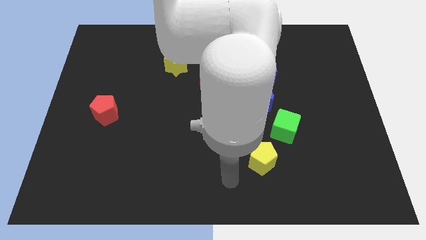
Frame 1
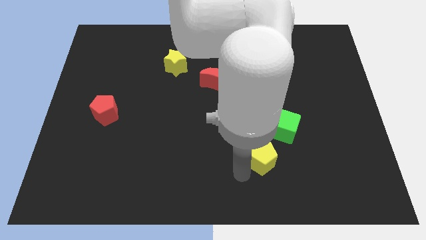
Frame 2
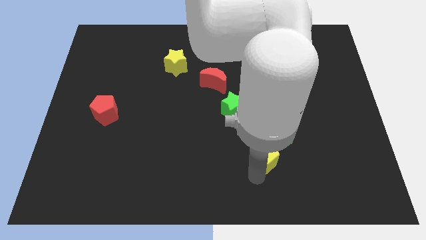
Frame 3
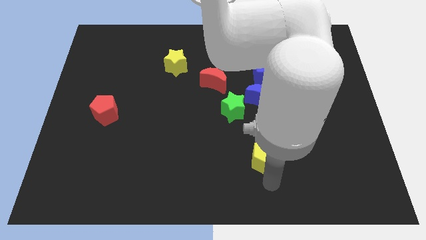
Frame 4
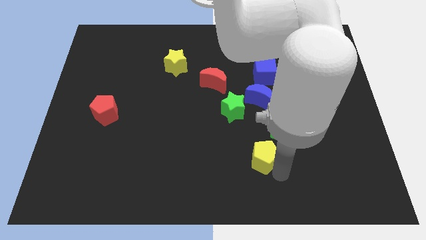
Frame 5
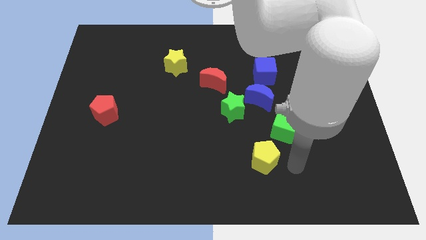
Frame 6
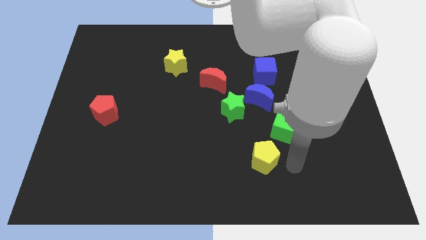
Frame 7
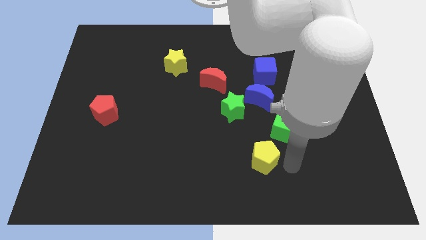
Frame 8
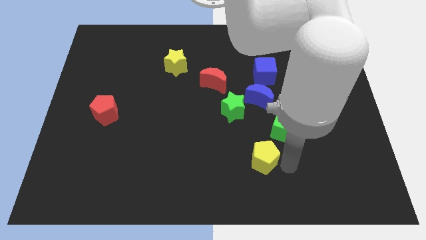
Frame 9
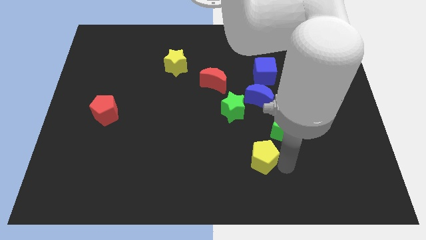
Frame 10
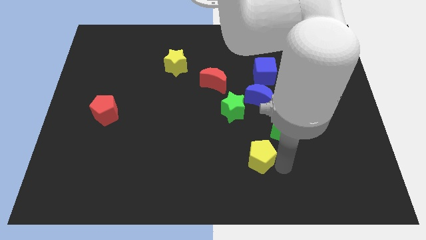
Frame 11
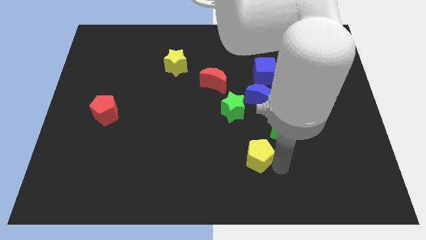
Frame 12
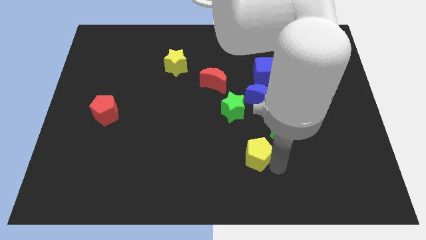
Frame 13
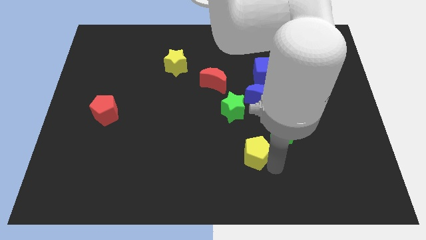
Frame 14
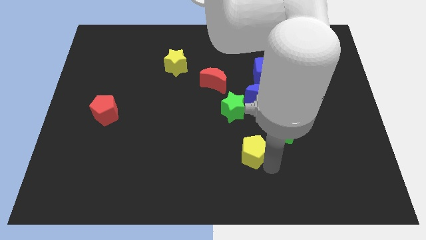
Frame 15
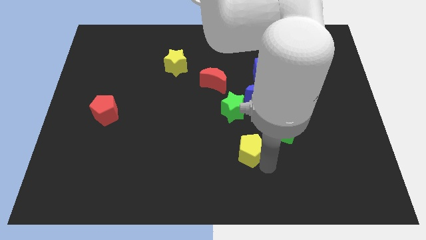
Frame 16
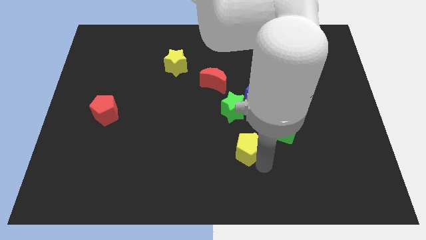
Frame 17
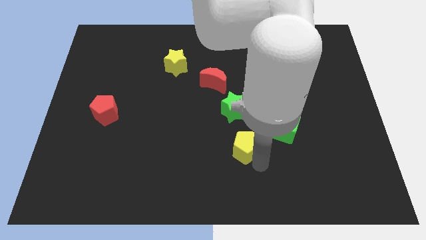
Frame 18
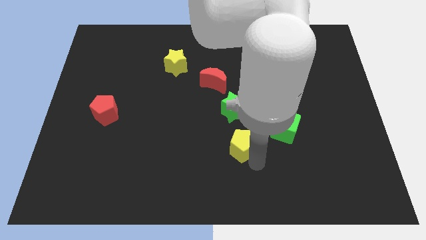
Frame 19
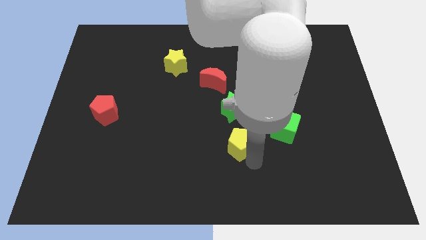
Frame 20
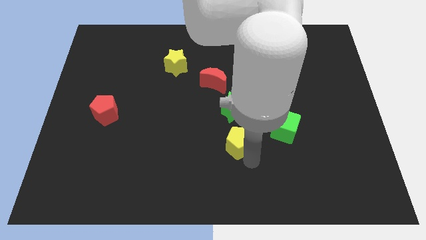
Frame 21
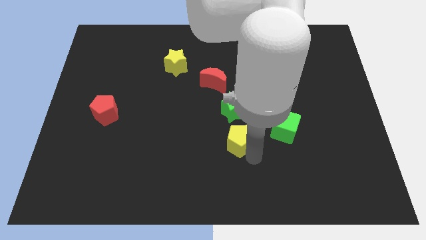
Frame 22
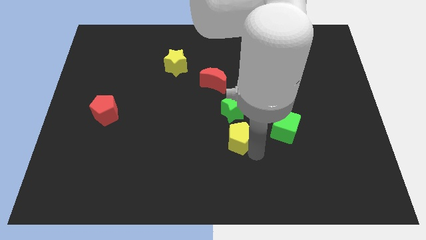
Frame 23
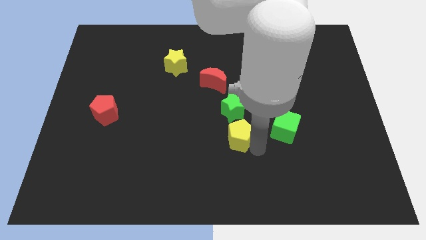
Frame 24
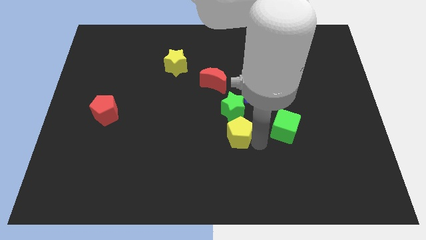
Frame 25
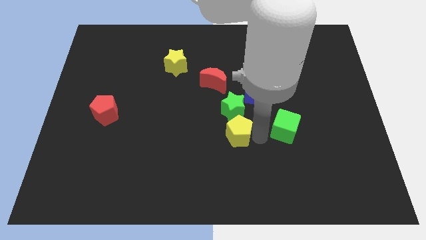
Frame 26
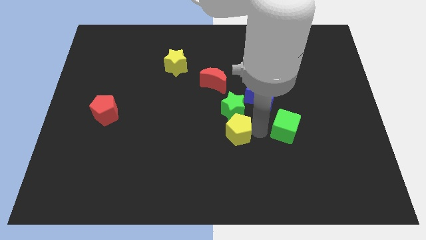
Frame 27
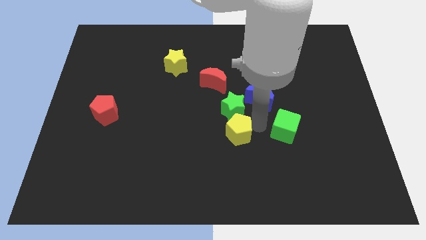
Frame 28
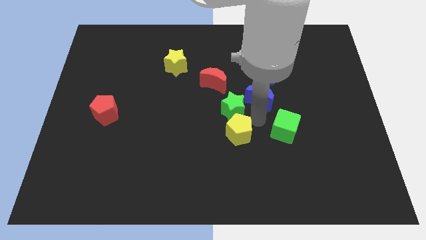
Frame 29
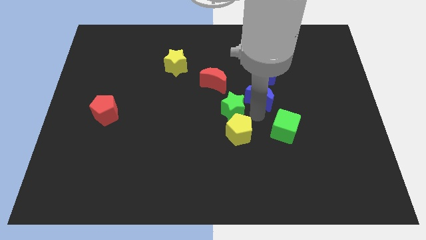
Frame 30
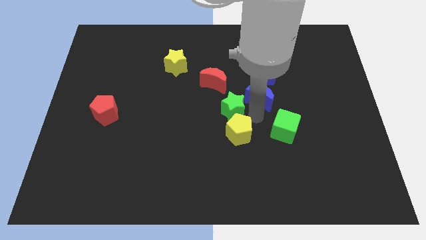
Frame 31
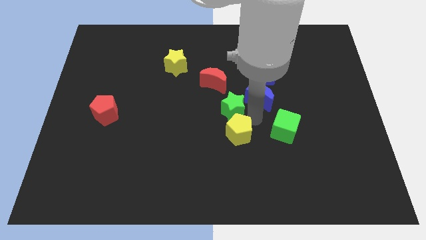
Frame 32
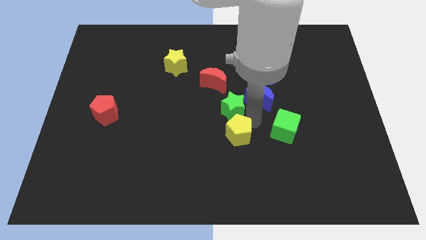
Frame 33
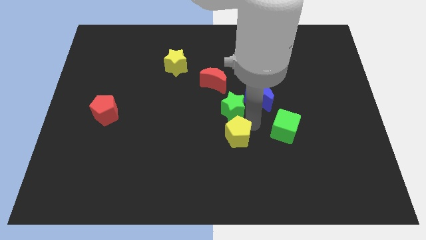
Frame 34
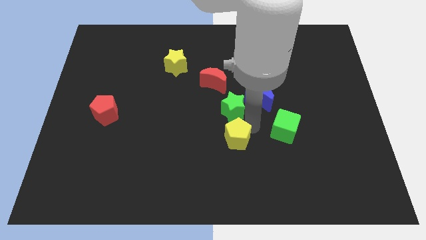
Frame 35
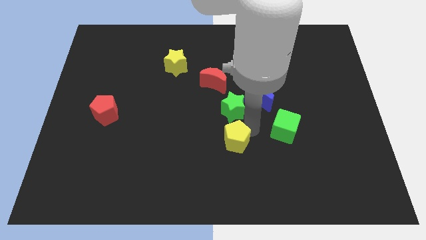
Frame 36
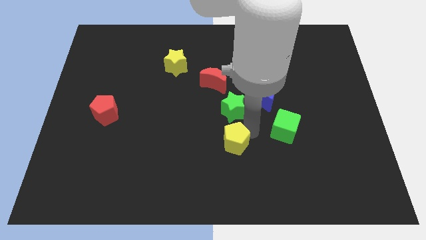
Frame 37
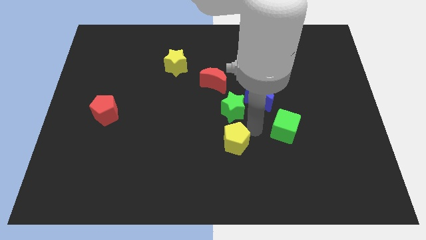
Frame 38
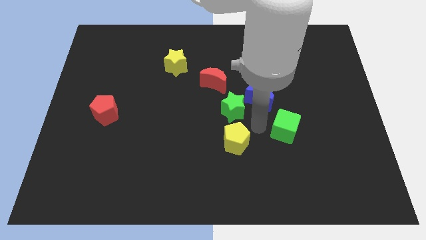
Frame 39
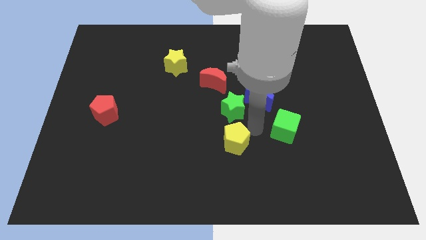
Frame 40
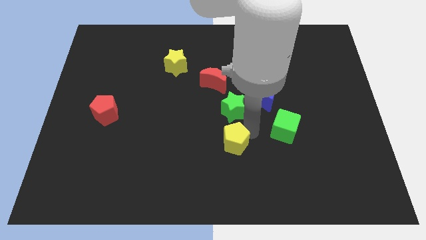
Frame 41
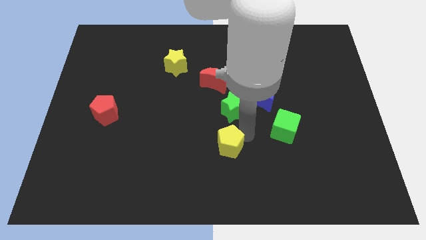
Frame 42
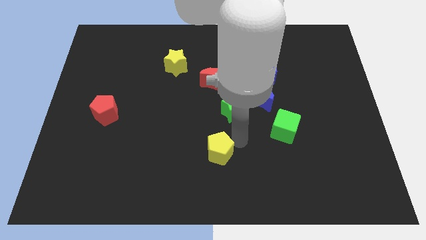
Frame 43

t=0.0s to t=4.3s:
push the yellow pentagon a little bit left

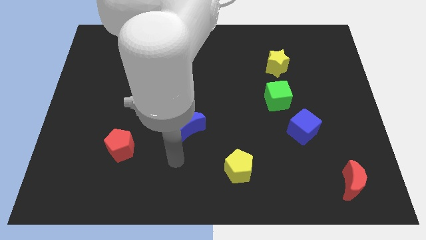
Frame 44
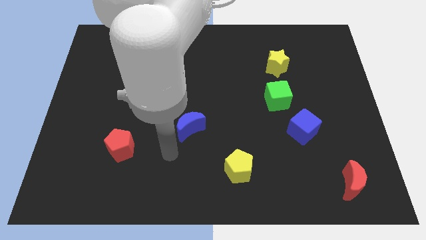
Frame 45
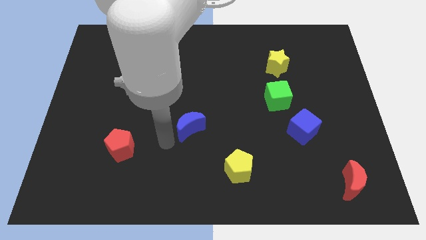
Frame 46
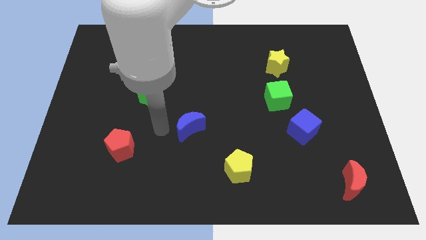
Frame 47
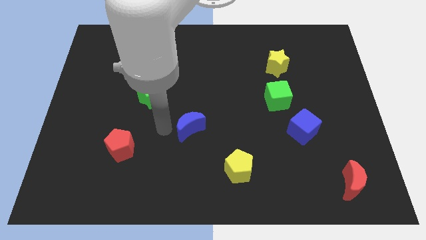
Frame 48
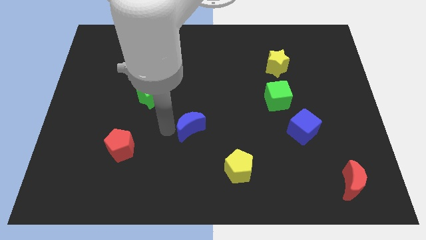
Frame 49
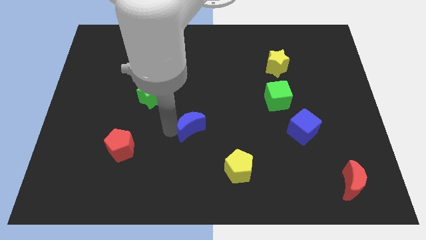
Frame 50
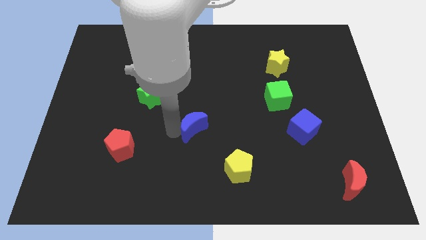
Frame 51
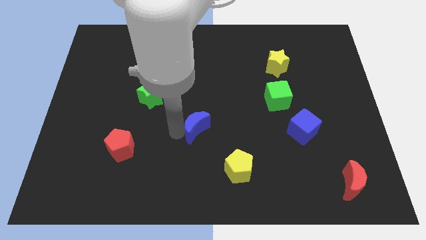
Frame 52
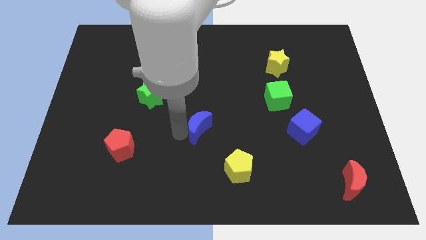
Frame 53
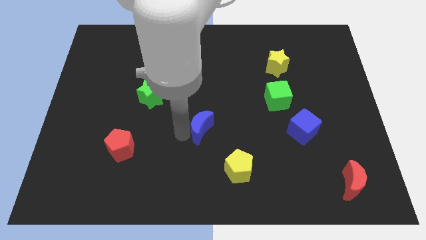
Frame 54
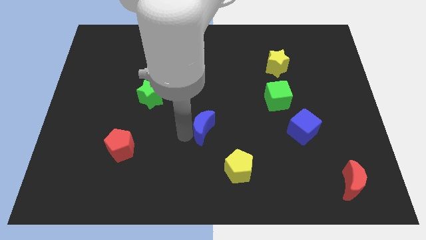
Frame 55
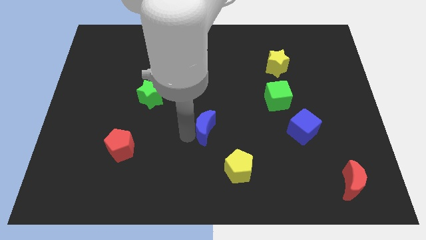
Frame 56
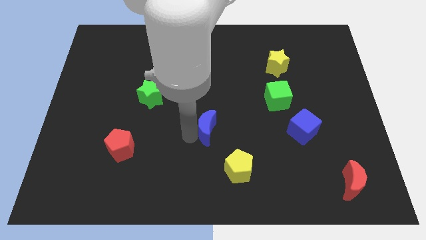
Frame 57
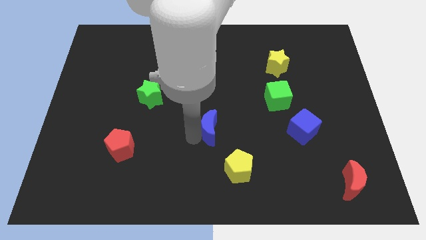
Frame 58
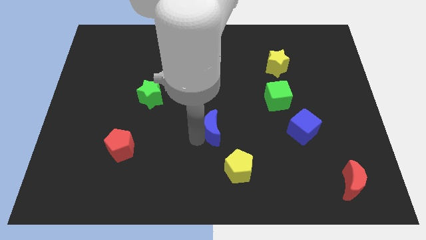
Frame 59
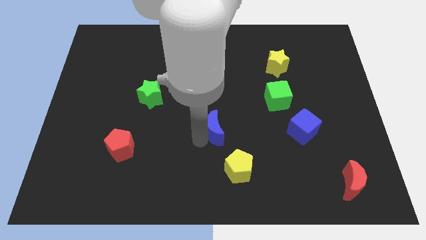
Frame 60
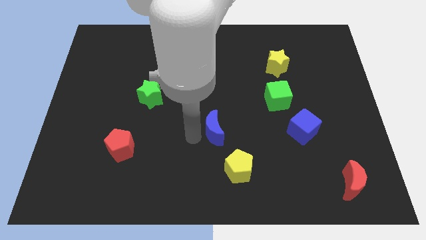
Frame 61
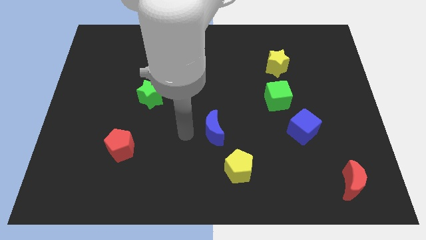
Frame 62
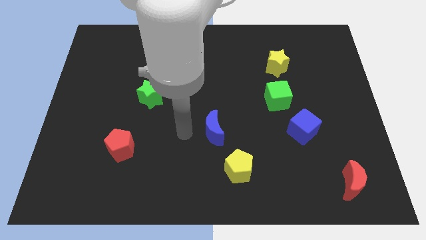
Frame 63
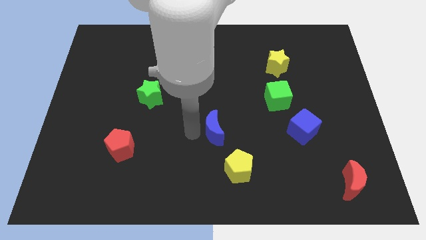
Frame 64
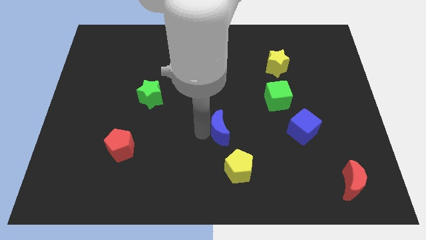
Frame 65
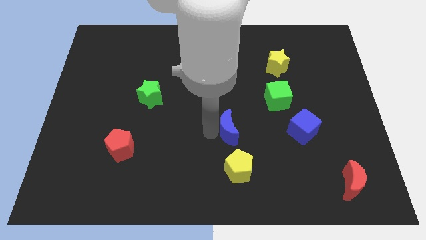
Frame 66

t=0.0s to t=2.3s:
move the blue moon to the right somewhat

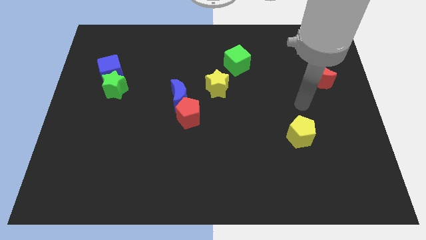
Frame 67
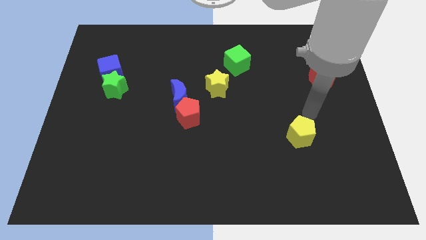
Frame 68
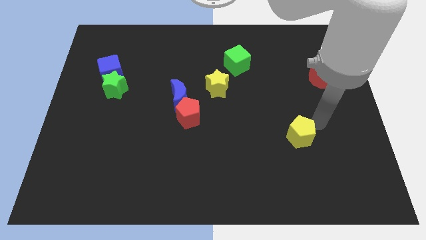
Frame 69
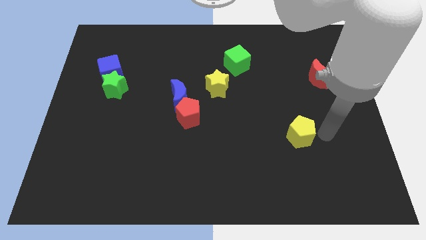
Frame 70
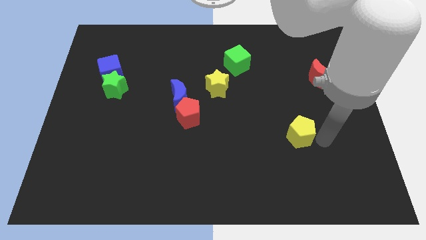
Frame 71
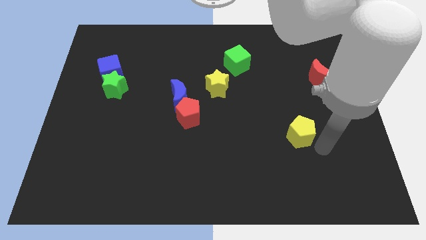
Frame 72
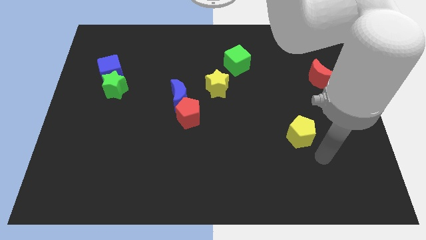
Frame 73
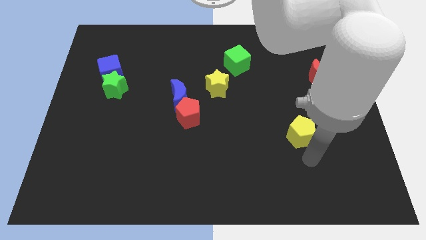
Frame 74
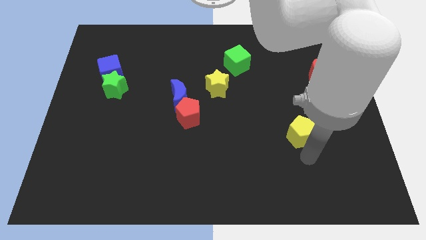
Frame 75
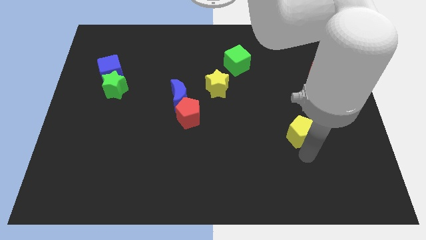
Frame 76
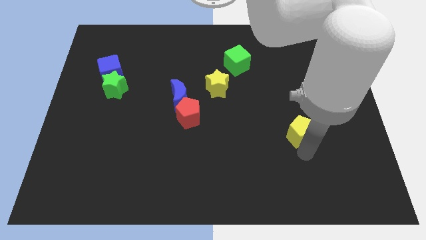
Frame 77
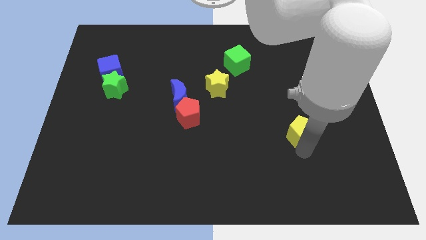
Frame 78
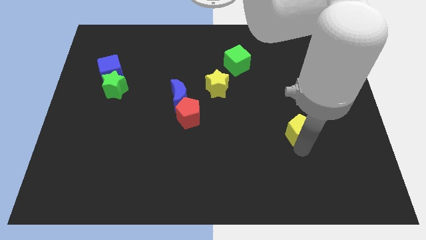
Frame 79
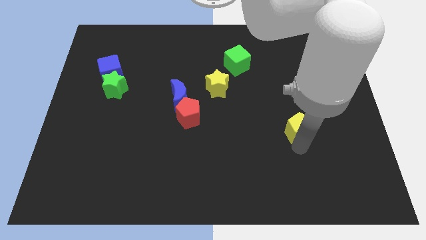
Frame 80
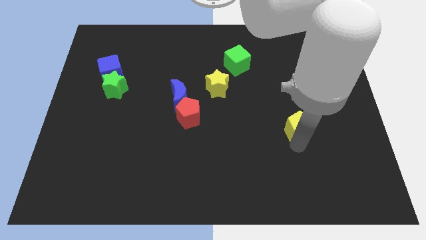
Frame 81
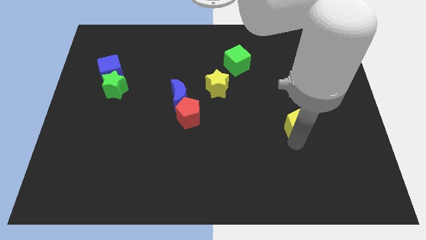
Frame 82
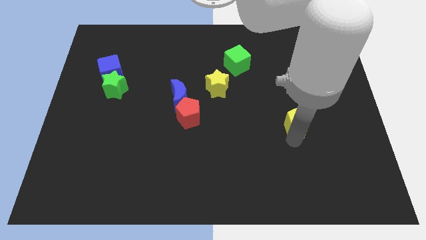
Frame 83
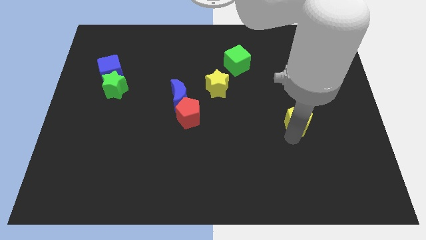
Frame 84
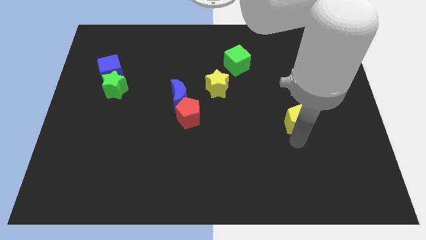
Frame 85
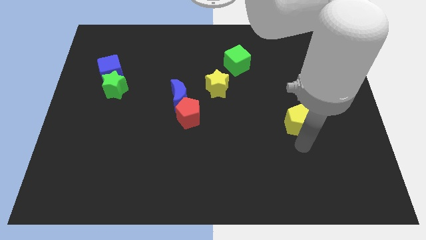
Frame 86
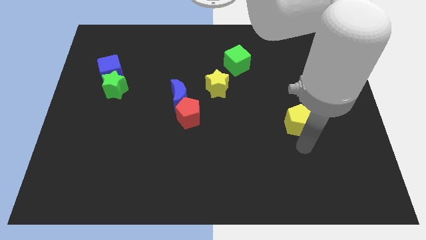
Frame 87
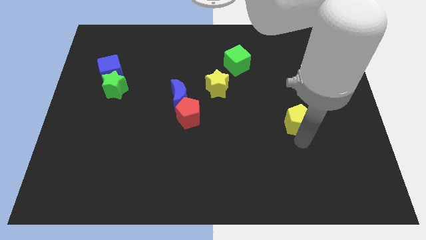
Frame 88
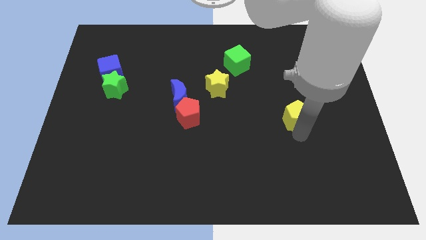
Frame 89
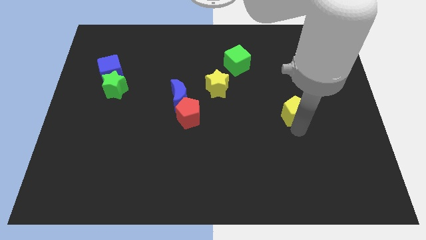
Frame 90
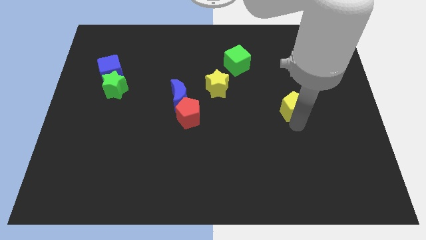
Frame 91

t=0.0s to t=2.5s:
move the yellow pentagon upwards slightly
